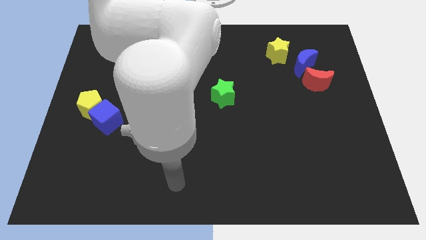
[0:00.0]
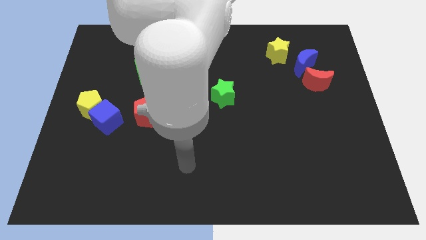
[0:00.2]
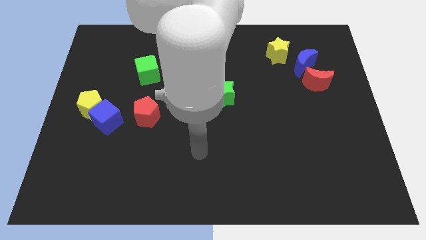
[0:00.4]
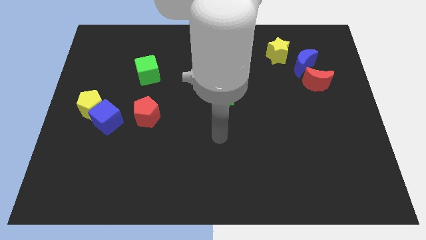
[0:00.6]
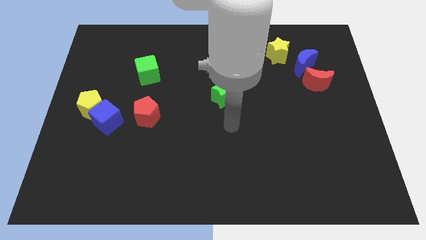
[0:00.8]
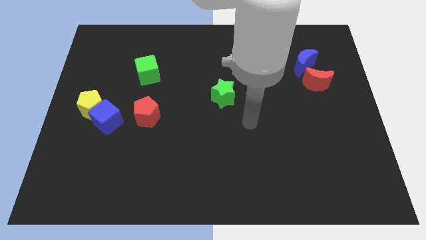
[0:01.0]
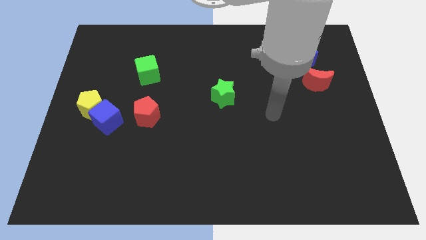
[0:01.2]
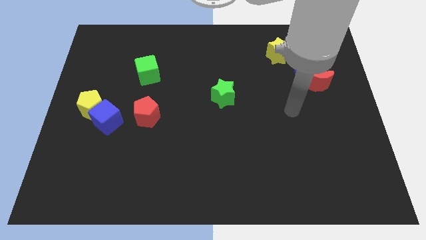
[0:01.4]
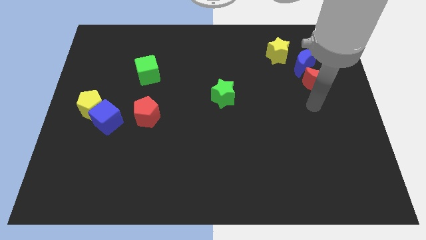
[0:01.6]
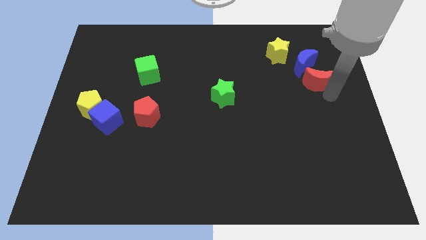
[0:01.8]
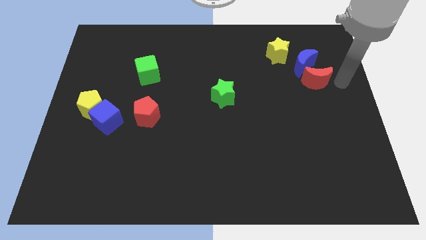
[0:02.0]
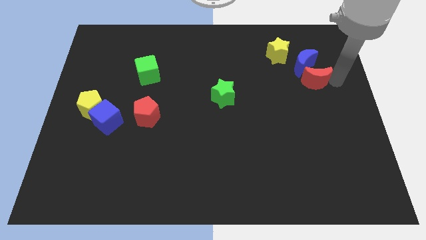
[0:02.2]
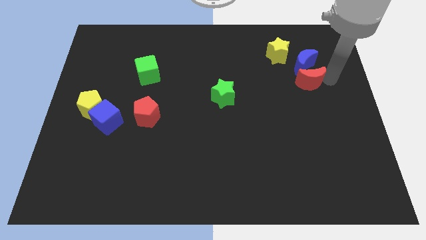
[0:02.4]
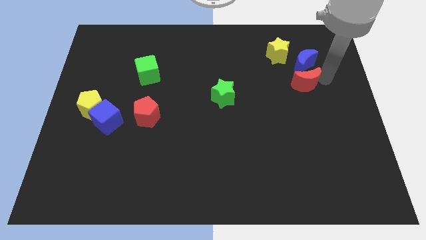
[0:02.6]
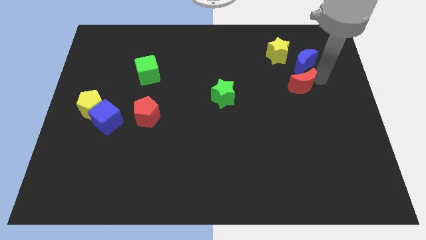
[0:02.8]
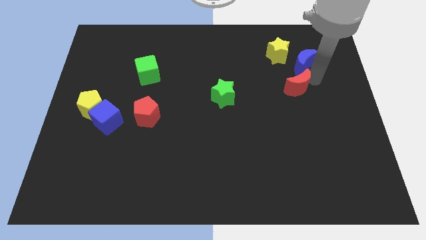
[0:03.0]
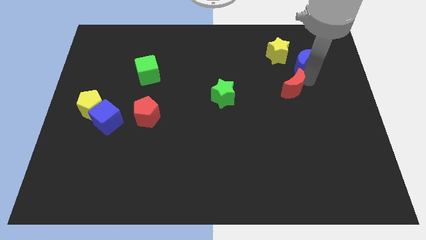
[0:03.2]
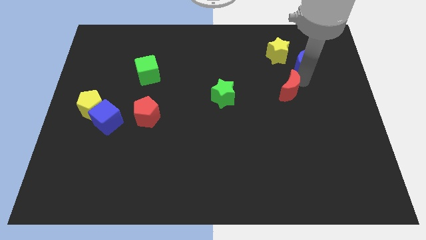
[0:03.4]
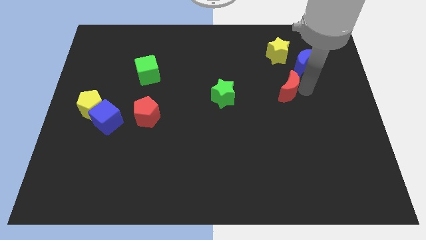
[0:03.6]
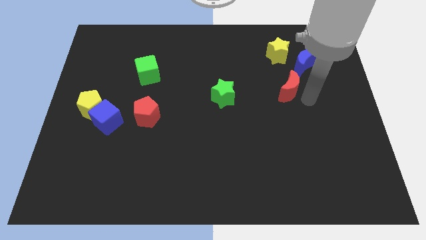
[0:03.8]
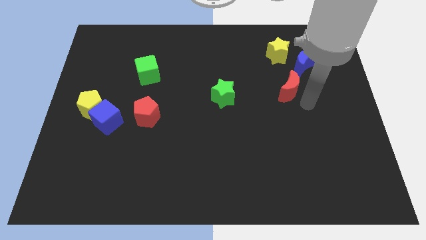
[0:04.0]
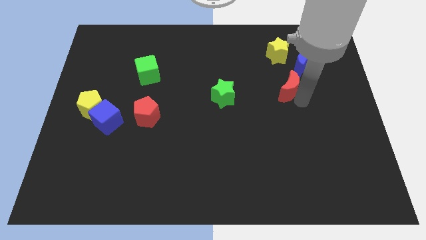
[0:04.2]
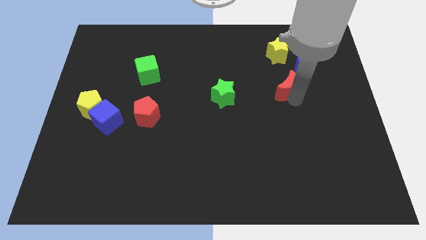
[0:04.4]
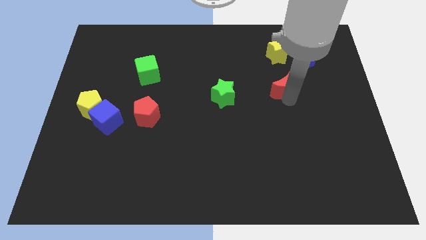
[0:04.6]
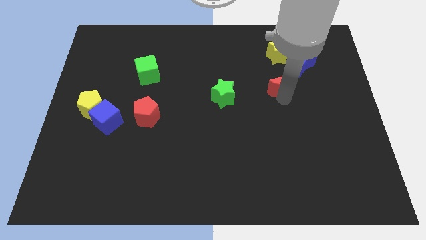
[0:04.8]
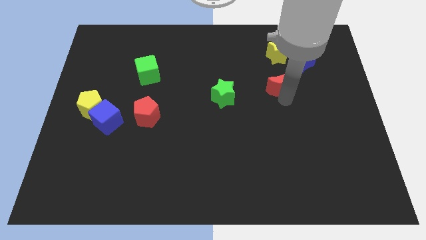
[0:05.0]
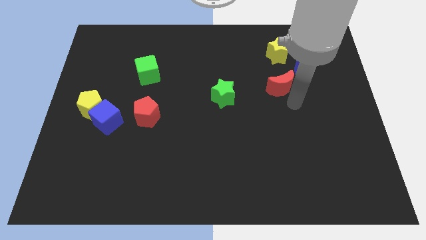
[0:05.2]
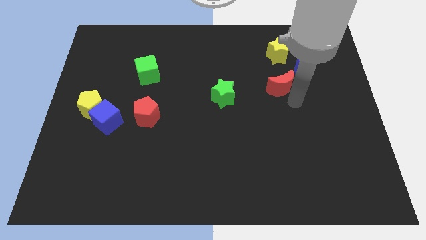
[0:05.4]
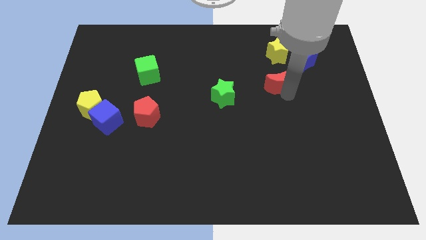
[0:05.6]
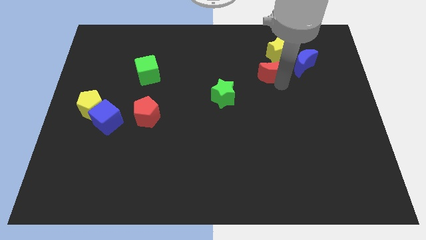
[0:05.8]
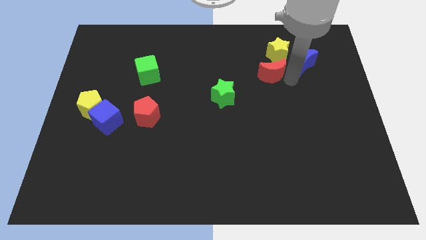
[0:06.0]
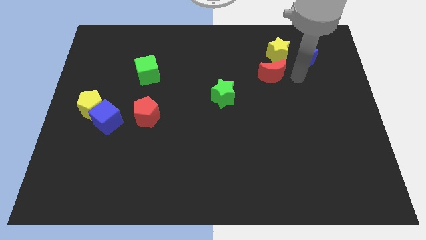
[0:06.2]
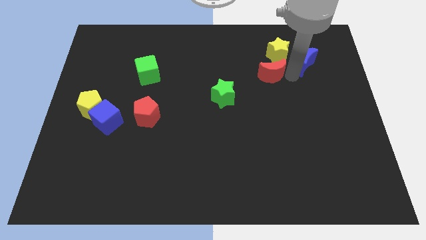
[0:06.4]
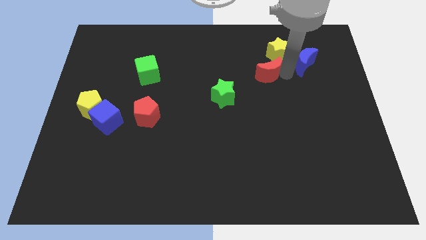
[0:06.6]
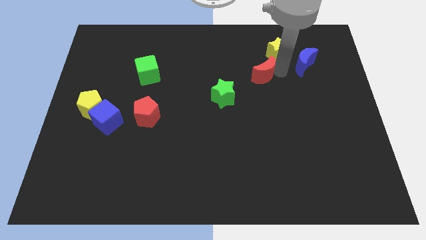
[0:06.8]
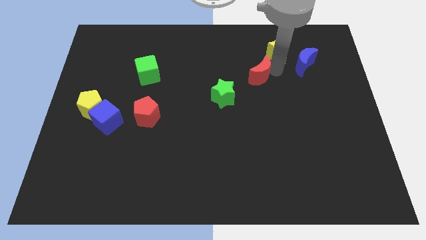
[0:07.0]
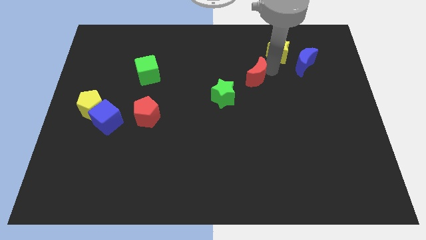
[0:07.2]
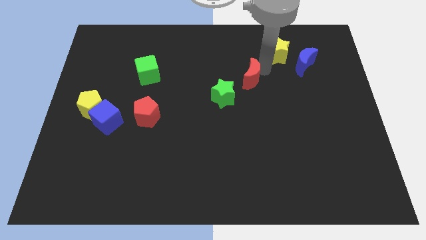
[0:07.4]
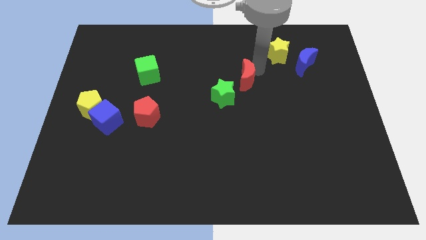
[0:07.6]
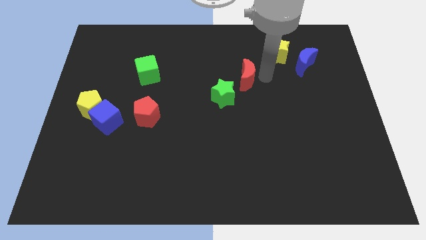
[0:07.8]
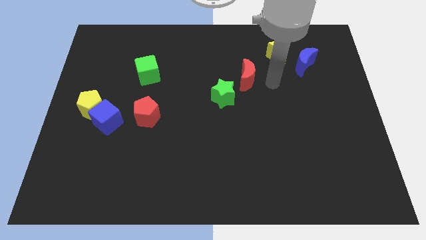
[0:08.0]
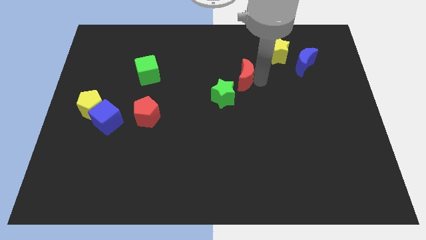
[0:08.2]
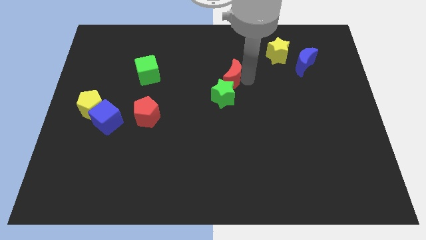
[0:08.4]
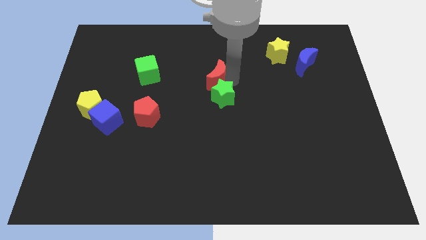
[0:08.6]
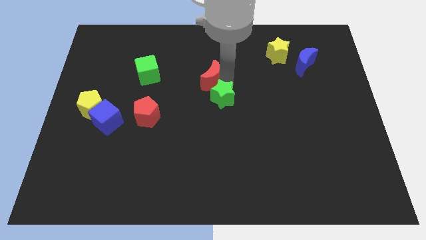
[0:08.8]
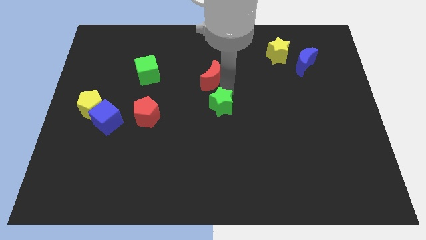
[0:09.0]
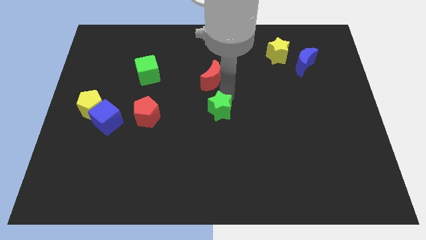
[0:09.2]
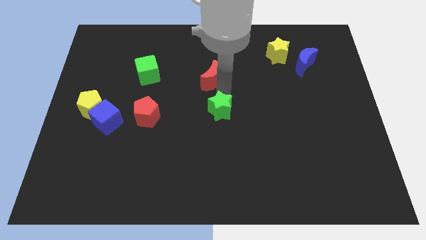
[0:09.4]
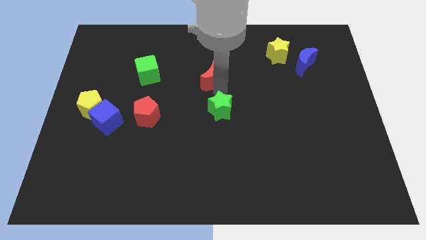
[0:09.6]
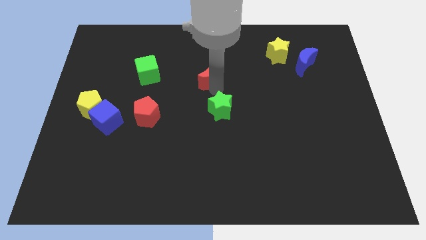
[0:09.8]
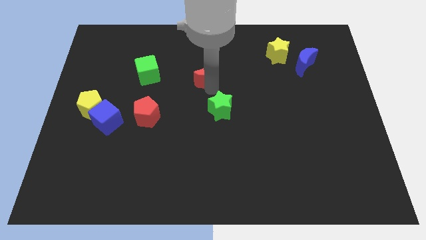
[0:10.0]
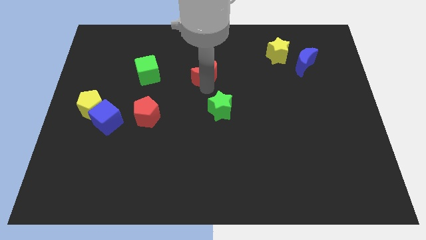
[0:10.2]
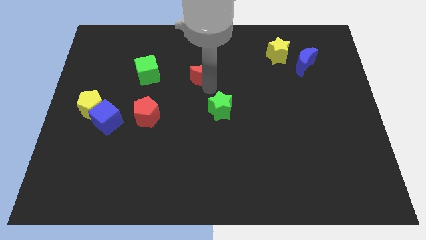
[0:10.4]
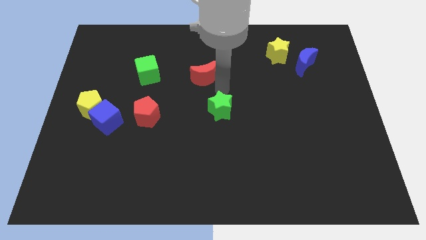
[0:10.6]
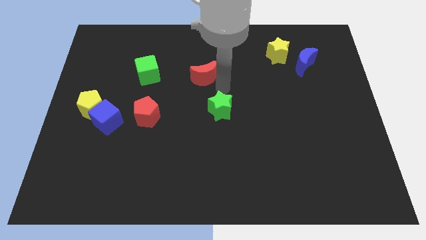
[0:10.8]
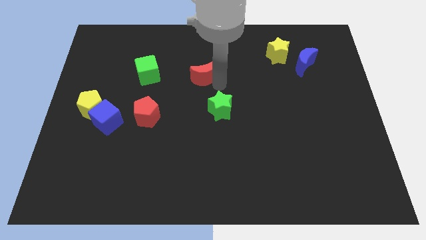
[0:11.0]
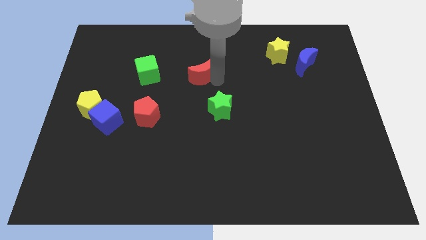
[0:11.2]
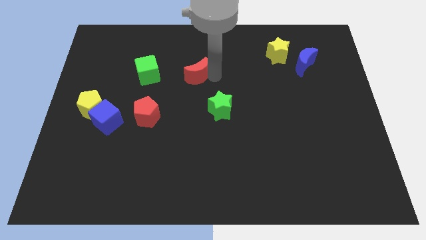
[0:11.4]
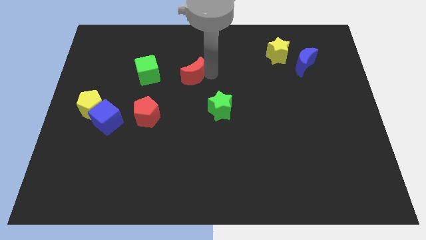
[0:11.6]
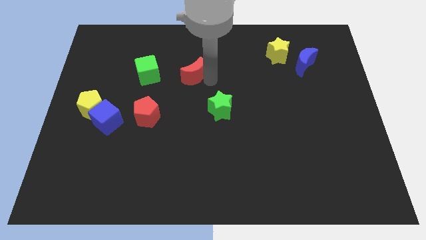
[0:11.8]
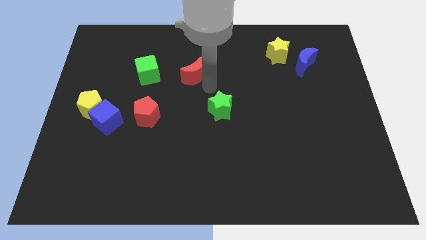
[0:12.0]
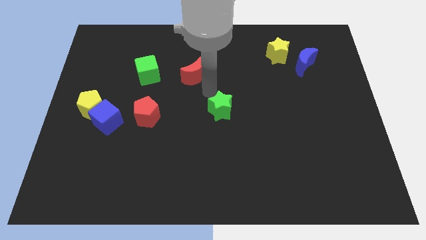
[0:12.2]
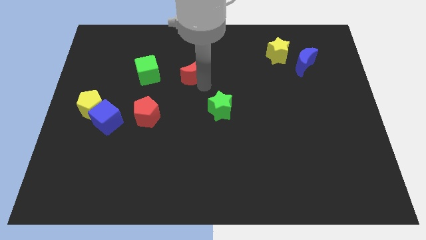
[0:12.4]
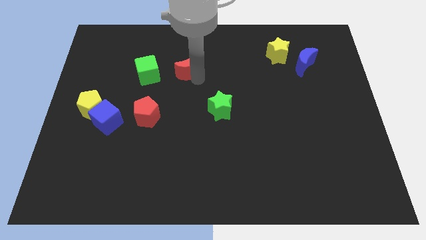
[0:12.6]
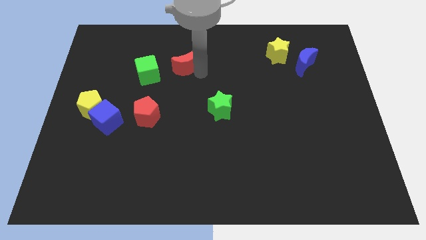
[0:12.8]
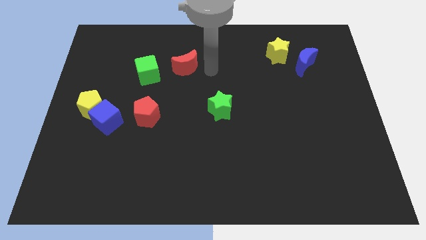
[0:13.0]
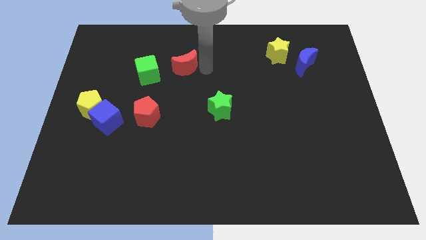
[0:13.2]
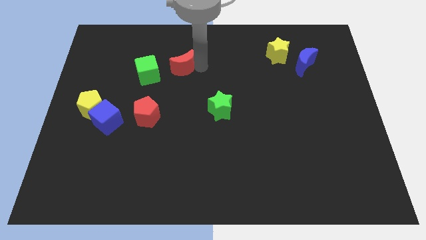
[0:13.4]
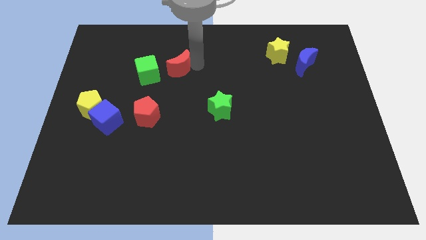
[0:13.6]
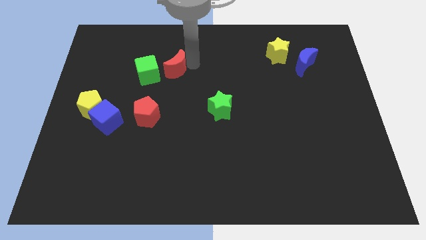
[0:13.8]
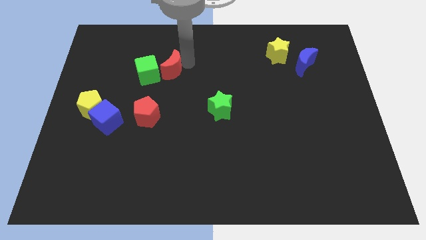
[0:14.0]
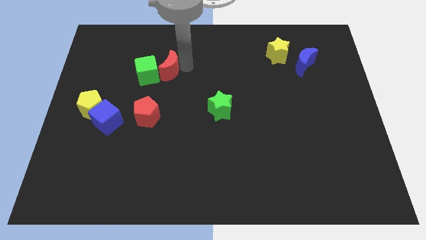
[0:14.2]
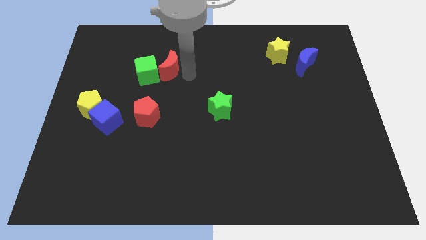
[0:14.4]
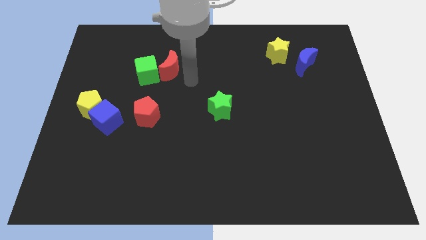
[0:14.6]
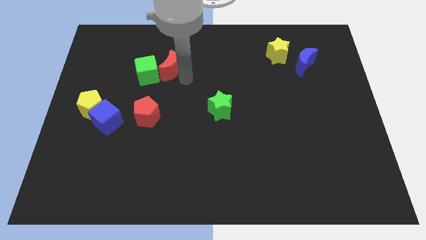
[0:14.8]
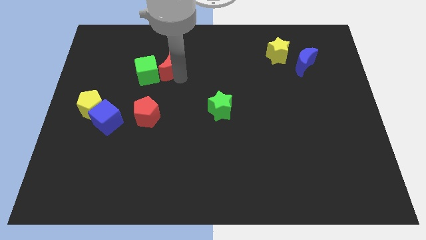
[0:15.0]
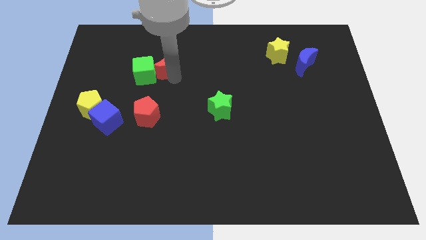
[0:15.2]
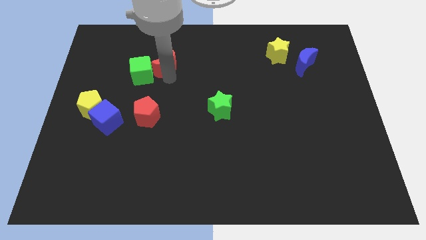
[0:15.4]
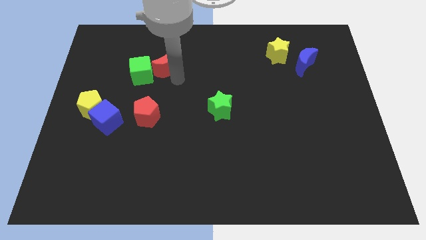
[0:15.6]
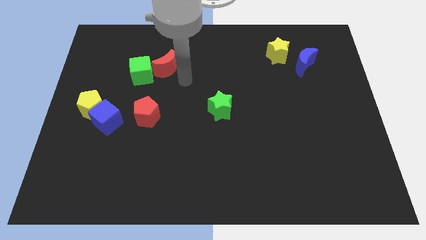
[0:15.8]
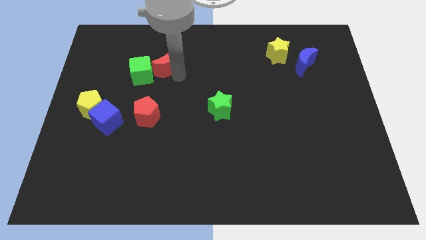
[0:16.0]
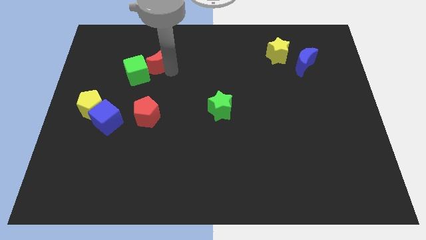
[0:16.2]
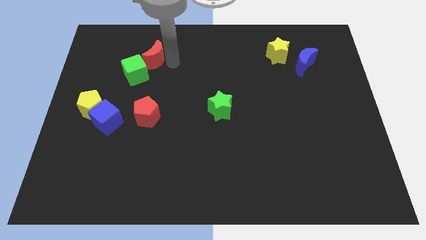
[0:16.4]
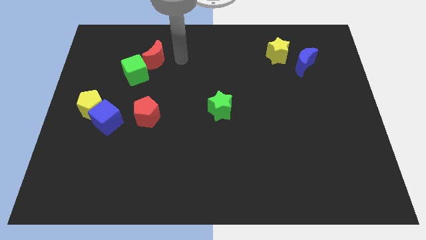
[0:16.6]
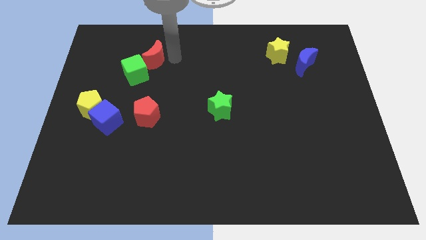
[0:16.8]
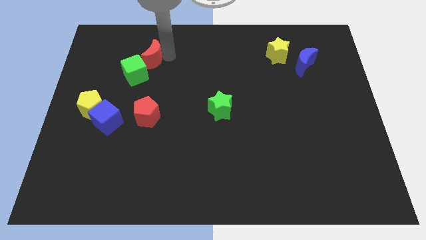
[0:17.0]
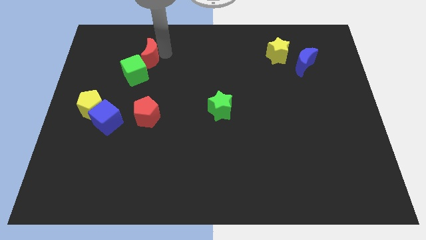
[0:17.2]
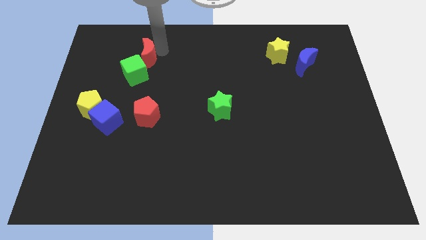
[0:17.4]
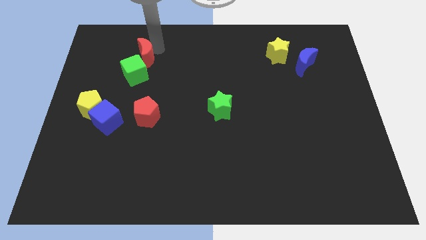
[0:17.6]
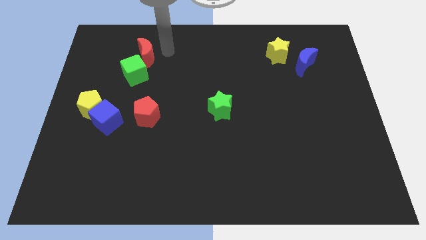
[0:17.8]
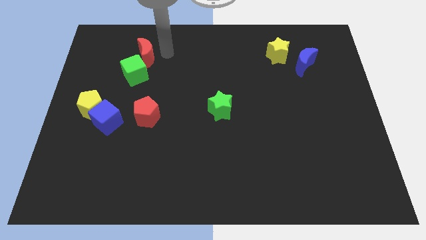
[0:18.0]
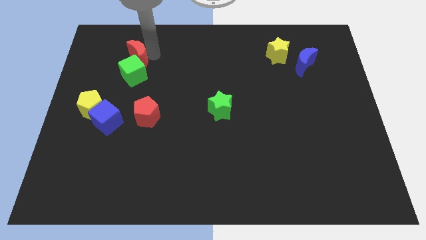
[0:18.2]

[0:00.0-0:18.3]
push the red moon to the top left side of the green cube
